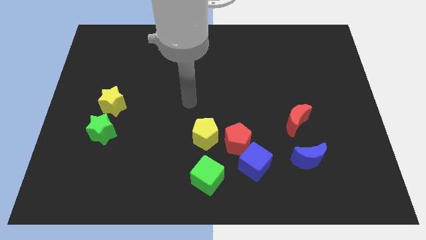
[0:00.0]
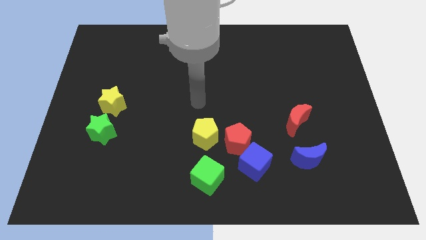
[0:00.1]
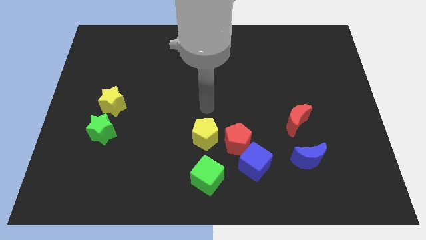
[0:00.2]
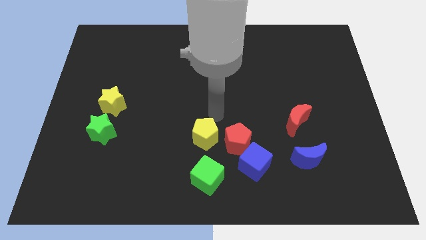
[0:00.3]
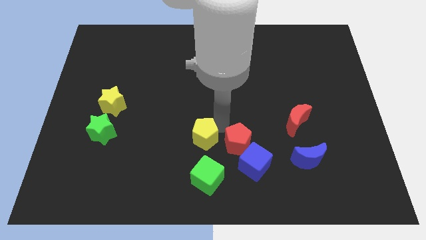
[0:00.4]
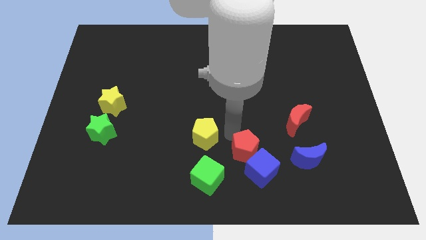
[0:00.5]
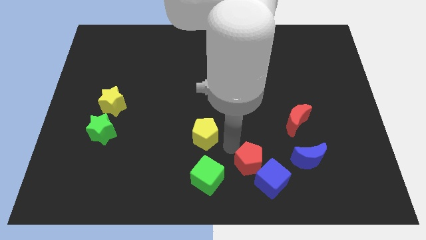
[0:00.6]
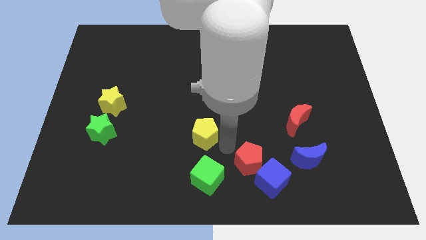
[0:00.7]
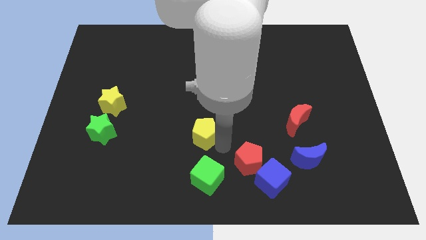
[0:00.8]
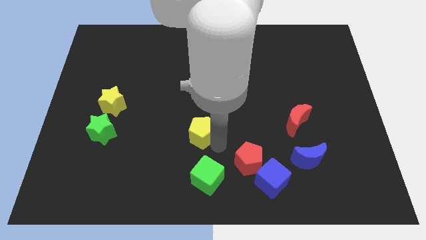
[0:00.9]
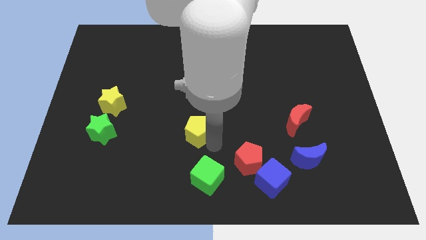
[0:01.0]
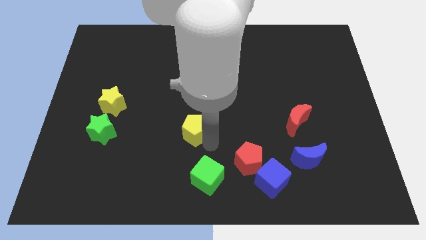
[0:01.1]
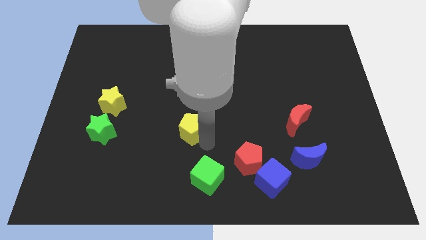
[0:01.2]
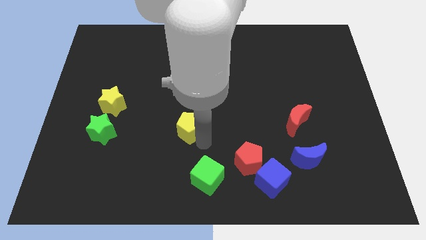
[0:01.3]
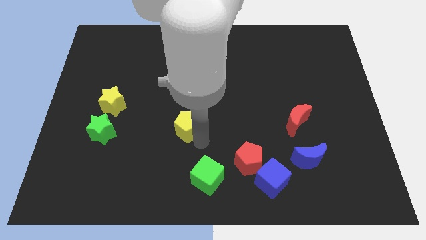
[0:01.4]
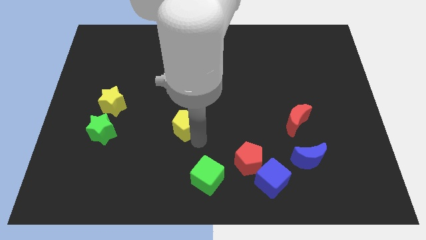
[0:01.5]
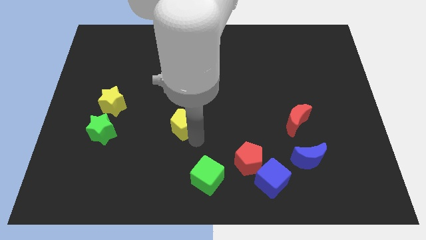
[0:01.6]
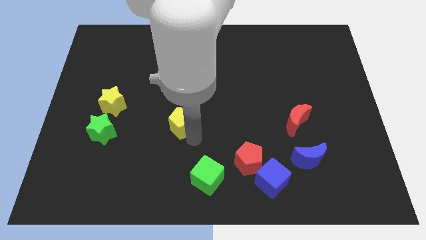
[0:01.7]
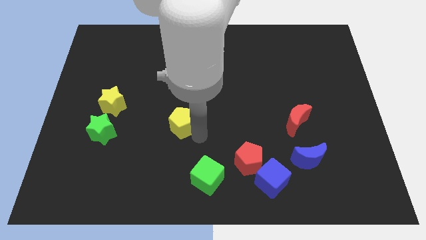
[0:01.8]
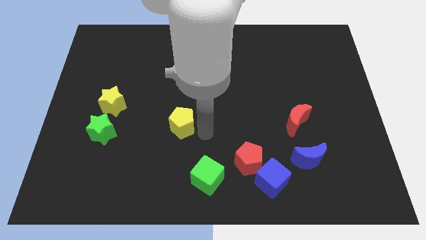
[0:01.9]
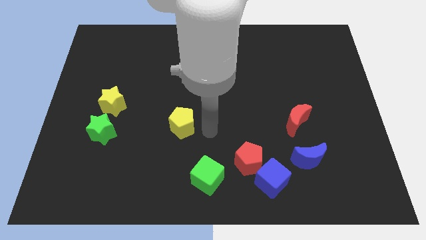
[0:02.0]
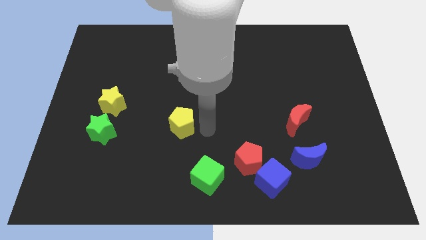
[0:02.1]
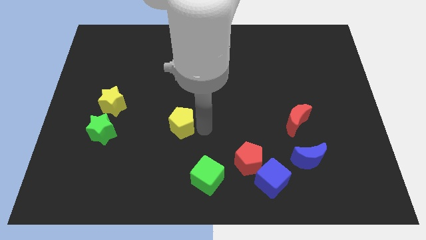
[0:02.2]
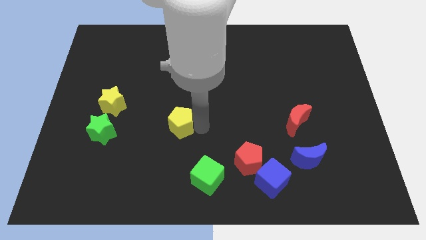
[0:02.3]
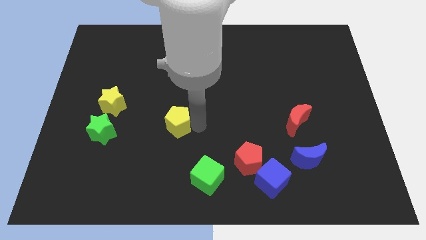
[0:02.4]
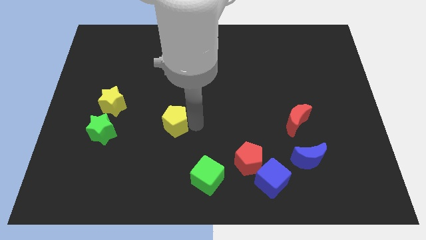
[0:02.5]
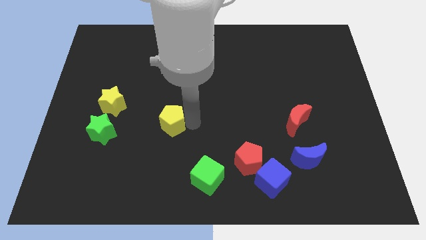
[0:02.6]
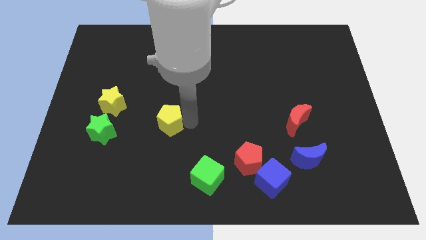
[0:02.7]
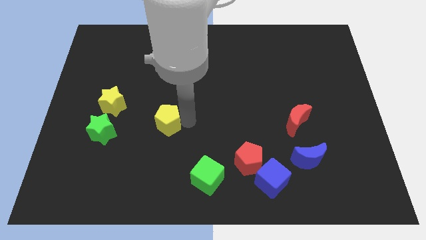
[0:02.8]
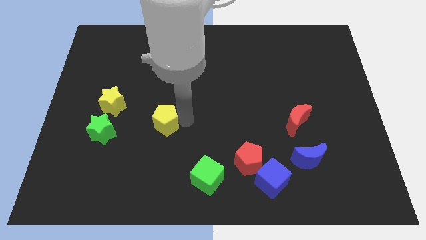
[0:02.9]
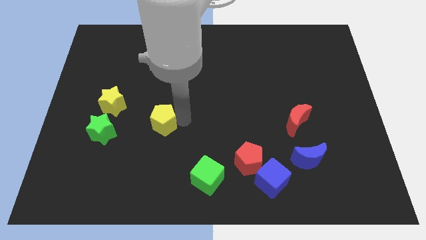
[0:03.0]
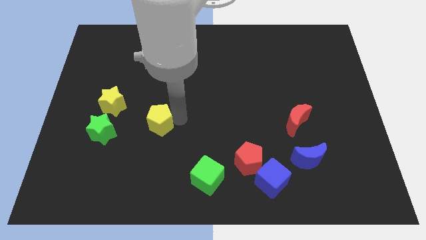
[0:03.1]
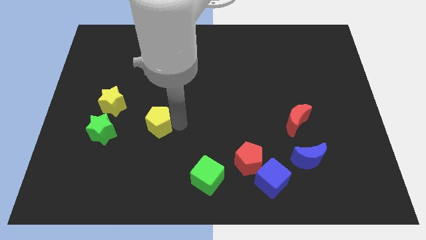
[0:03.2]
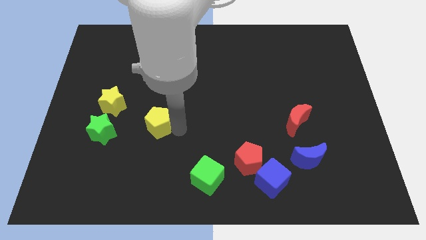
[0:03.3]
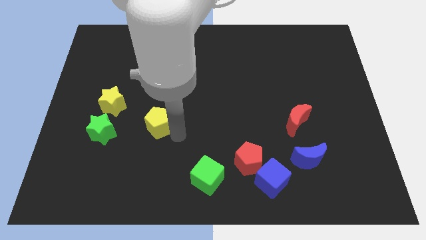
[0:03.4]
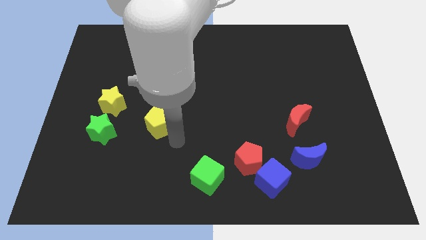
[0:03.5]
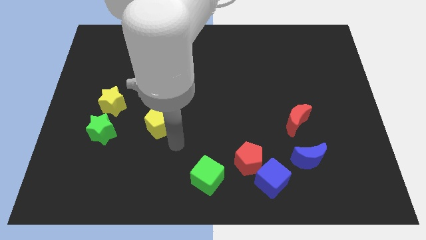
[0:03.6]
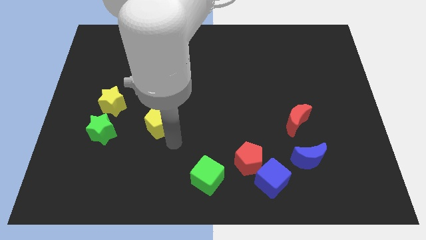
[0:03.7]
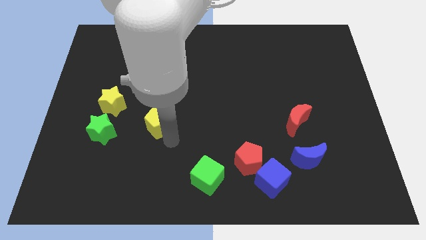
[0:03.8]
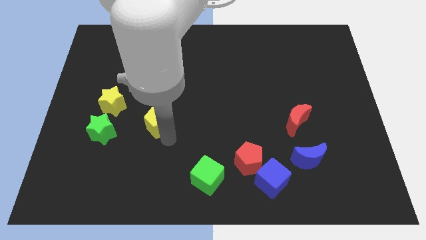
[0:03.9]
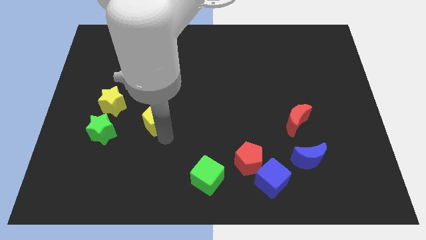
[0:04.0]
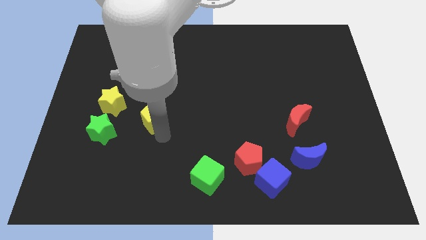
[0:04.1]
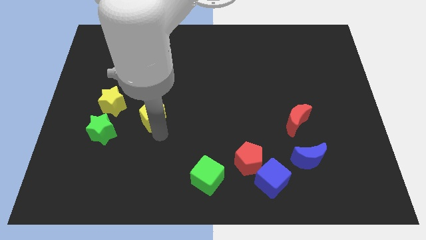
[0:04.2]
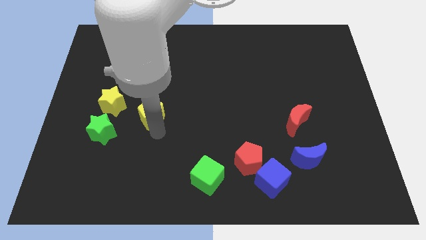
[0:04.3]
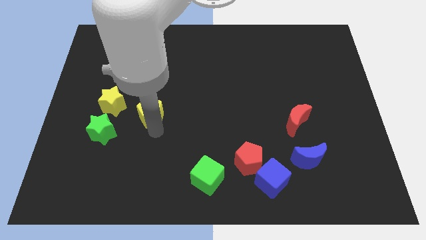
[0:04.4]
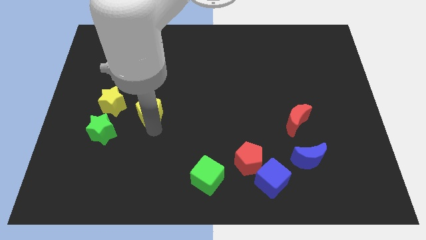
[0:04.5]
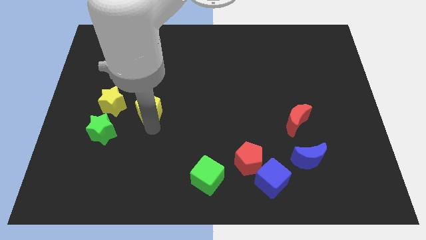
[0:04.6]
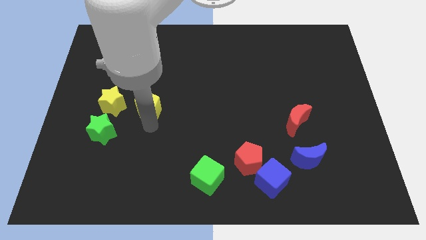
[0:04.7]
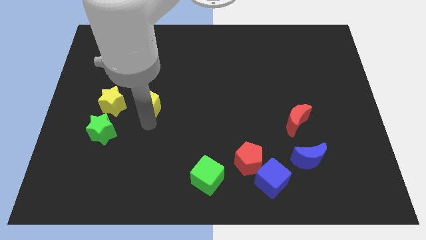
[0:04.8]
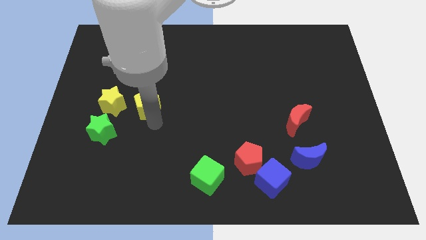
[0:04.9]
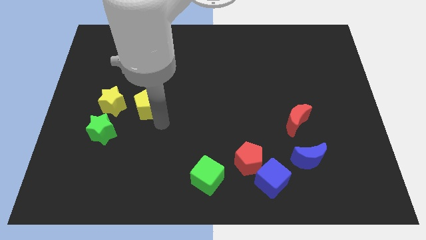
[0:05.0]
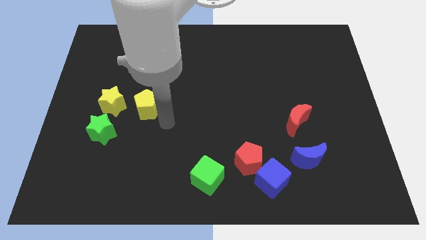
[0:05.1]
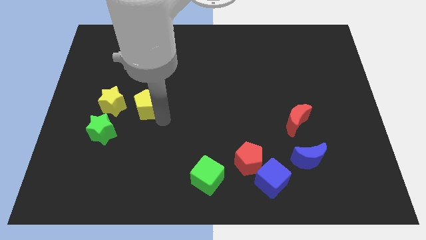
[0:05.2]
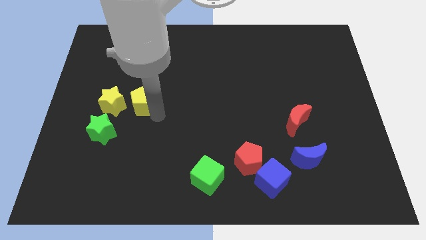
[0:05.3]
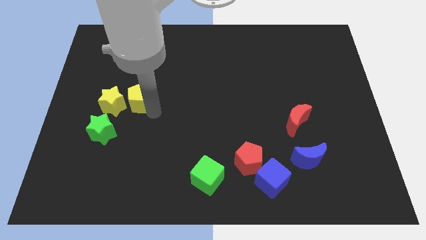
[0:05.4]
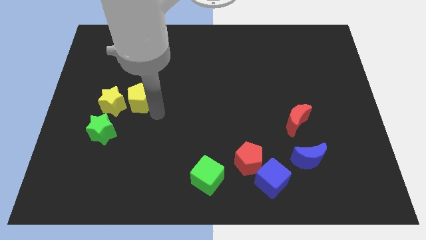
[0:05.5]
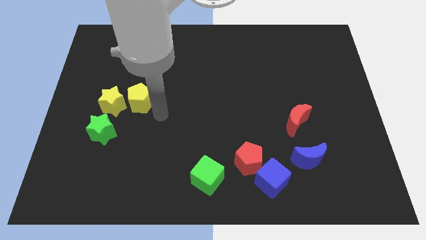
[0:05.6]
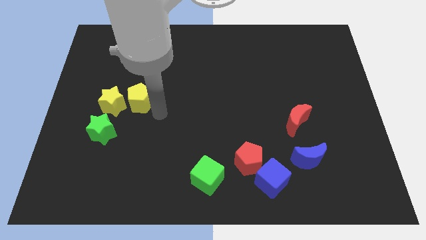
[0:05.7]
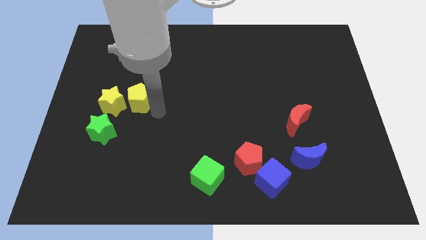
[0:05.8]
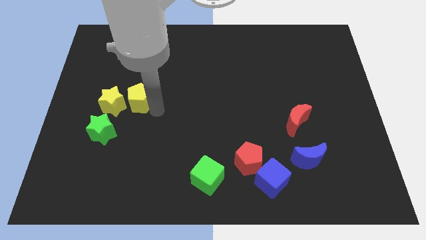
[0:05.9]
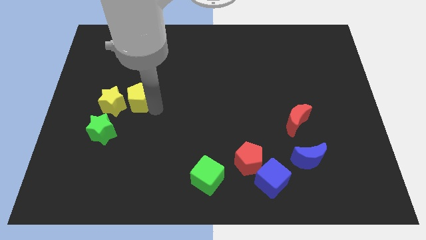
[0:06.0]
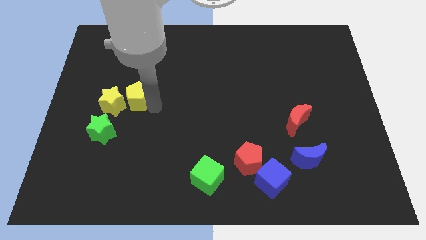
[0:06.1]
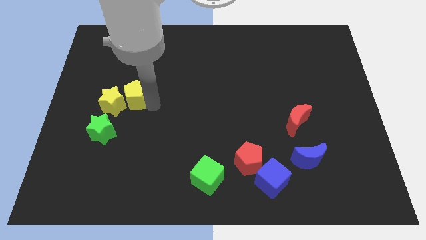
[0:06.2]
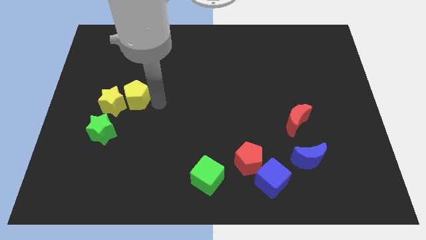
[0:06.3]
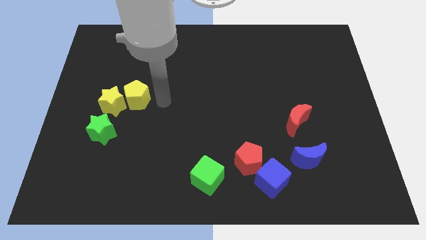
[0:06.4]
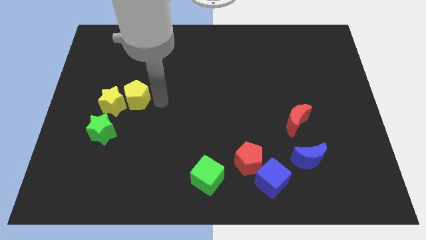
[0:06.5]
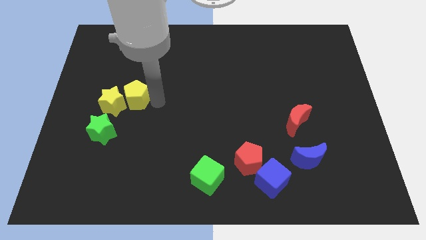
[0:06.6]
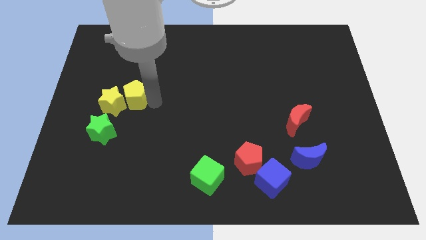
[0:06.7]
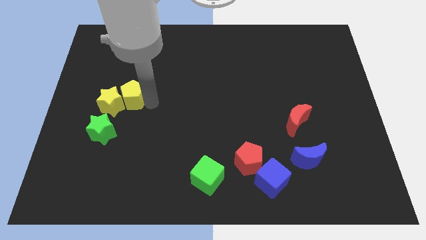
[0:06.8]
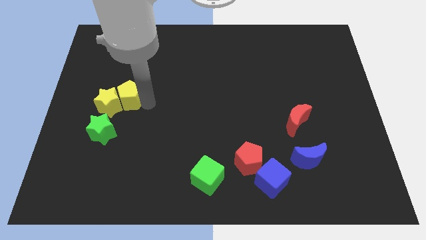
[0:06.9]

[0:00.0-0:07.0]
put the yellow pentagon to the top side of the green star

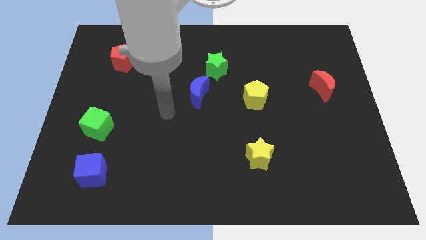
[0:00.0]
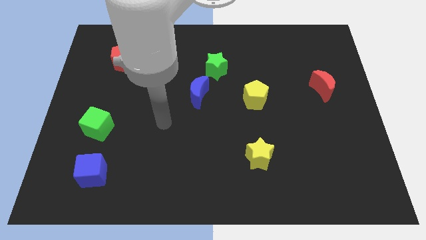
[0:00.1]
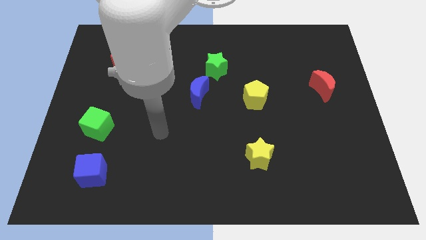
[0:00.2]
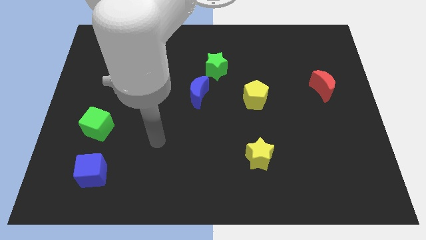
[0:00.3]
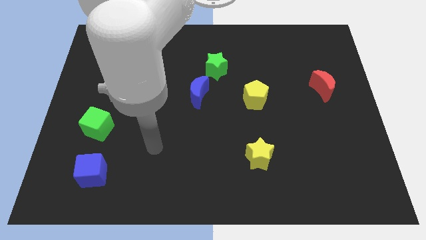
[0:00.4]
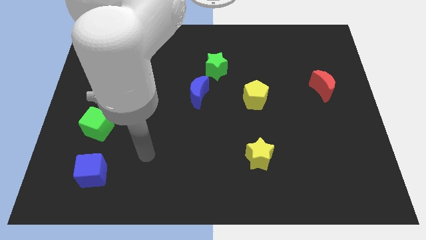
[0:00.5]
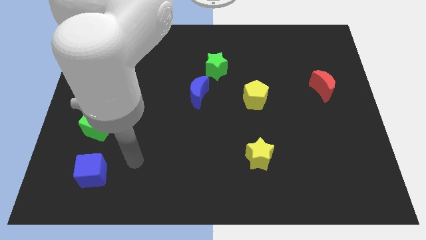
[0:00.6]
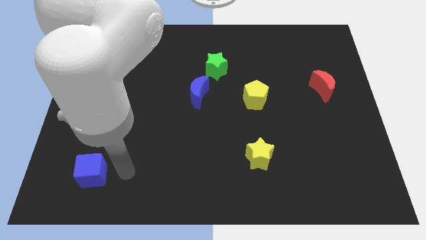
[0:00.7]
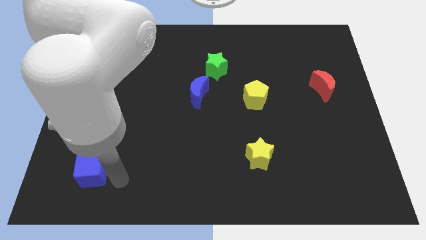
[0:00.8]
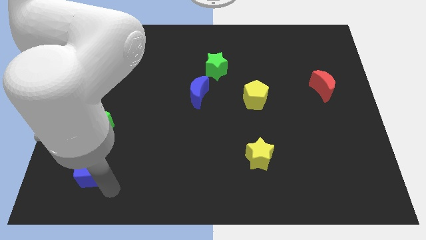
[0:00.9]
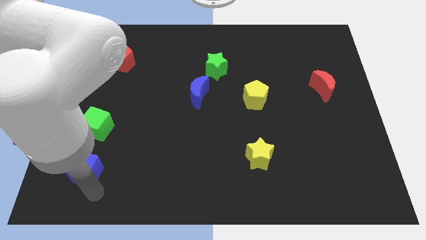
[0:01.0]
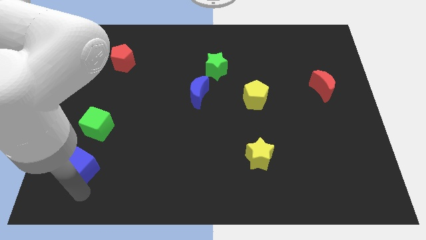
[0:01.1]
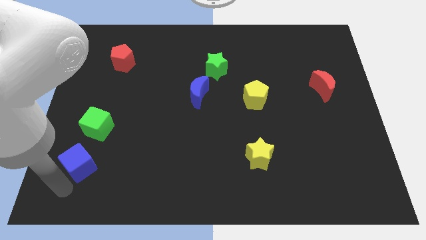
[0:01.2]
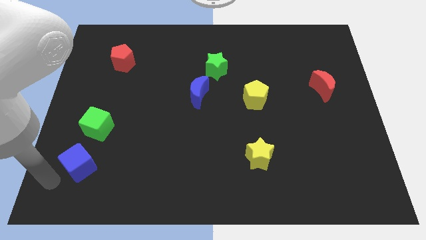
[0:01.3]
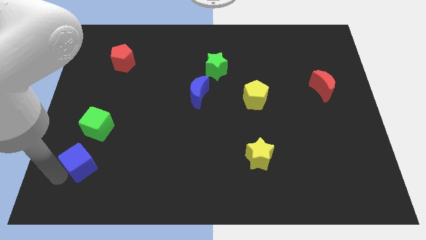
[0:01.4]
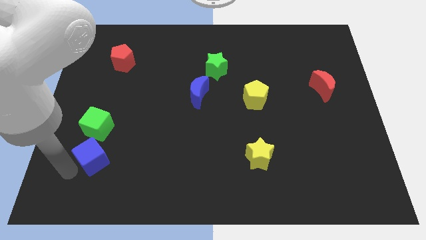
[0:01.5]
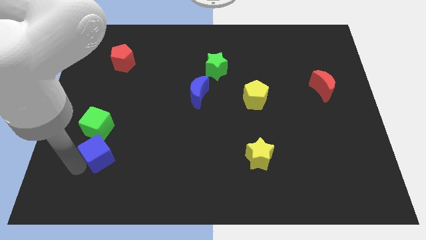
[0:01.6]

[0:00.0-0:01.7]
put the blue cube to the bottom right side of the green cube
